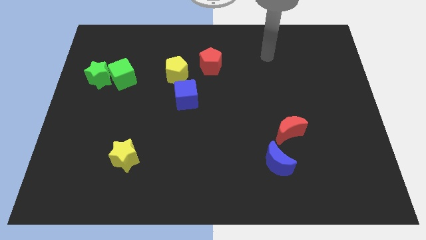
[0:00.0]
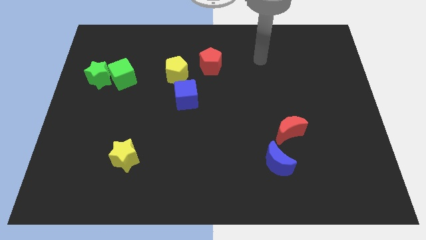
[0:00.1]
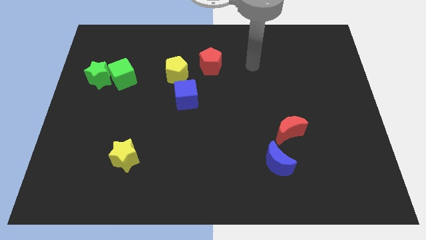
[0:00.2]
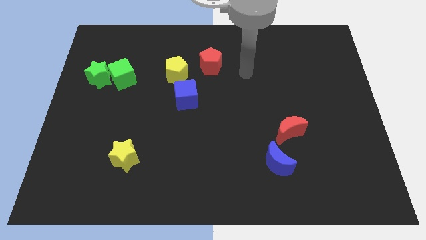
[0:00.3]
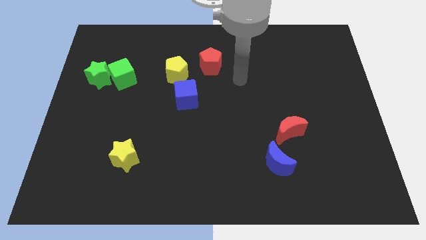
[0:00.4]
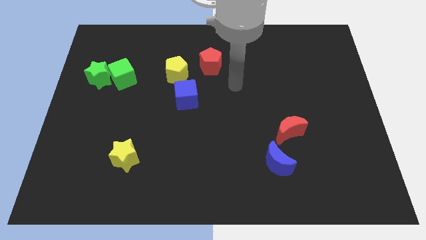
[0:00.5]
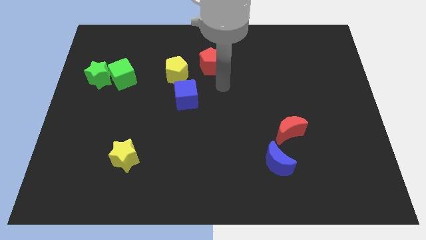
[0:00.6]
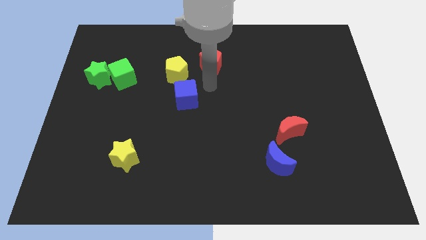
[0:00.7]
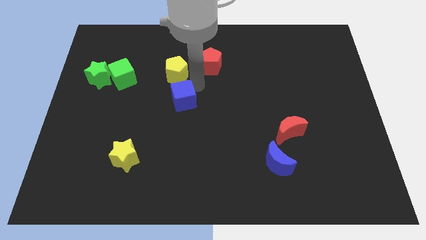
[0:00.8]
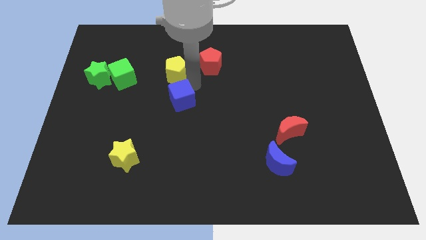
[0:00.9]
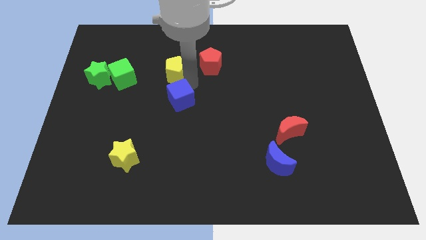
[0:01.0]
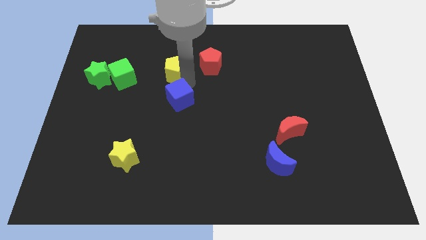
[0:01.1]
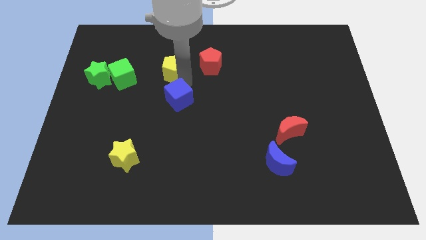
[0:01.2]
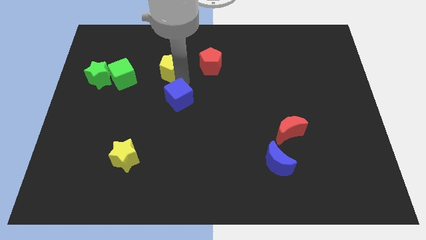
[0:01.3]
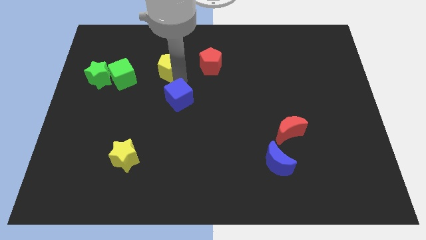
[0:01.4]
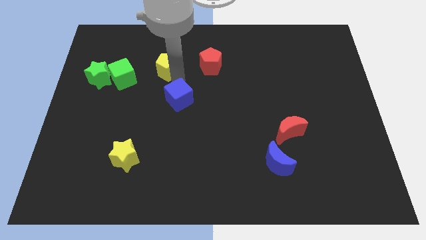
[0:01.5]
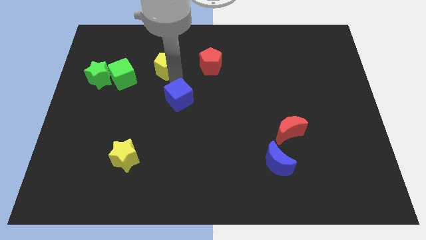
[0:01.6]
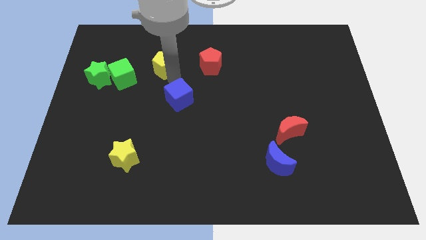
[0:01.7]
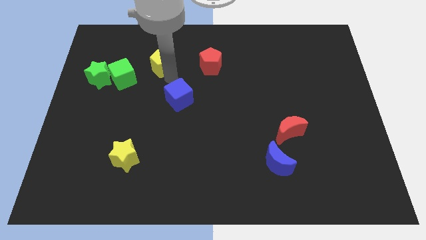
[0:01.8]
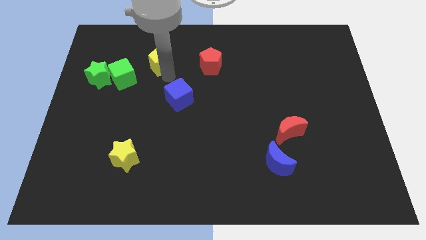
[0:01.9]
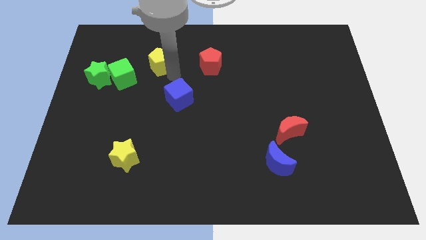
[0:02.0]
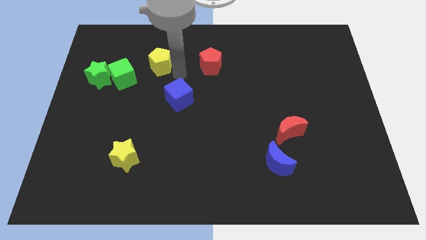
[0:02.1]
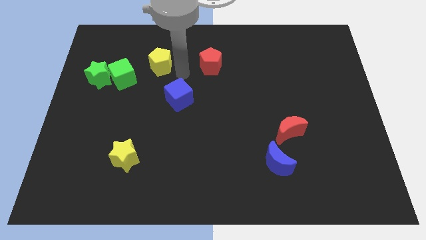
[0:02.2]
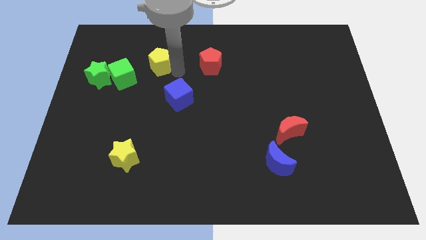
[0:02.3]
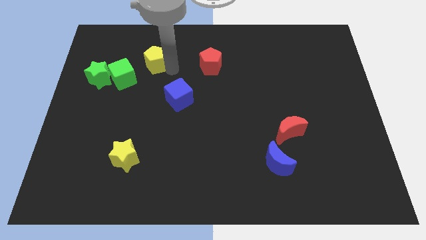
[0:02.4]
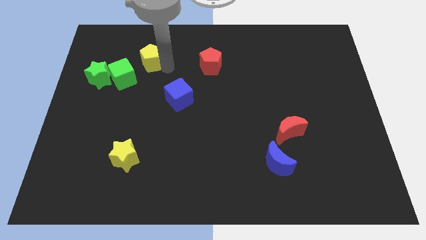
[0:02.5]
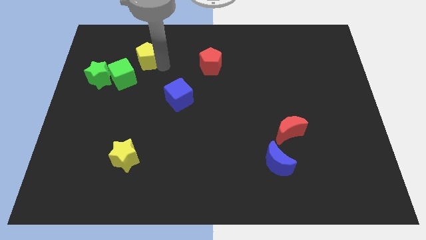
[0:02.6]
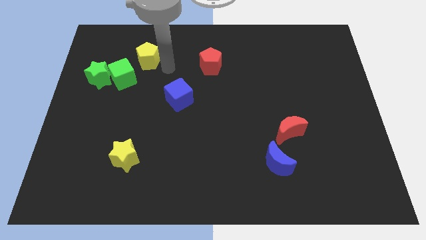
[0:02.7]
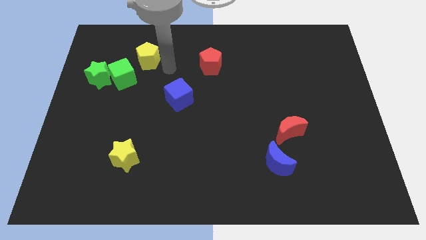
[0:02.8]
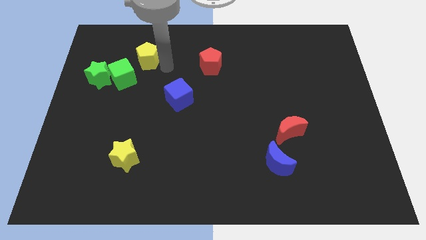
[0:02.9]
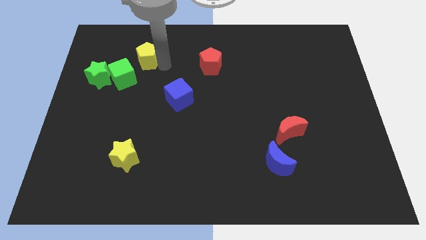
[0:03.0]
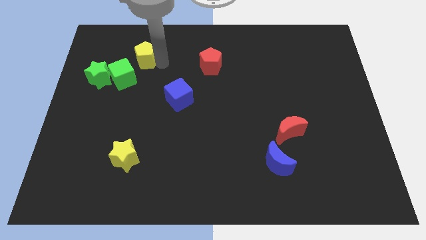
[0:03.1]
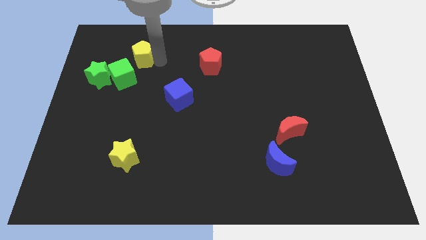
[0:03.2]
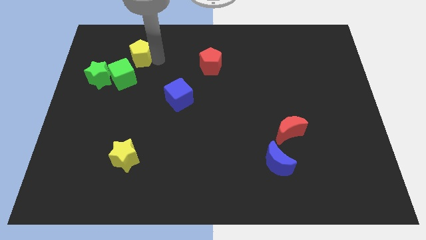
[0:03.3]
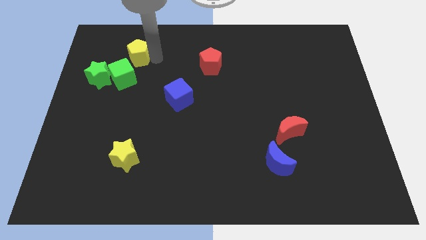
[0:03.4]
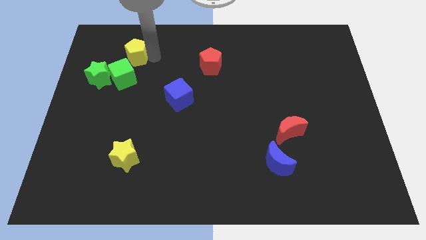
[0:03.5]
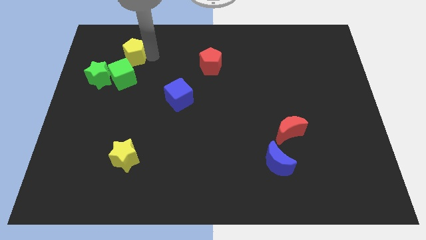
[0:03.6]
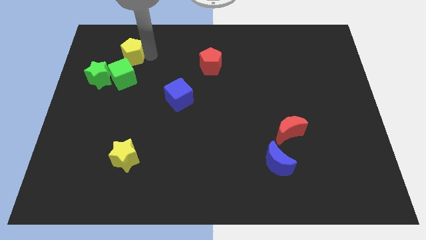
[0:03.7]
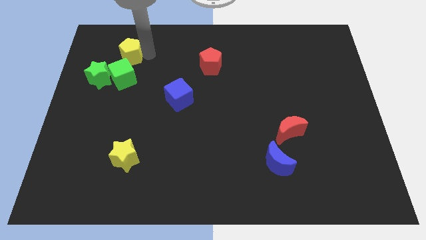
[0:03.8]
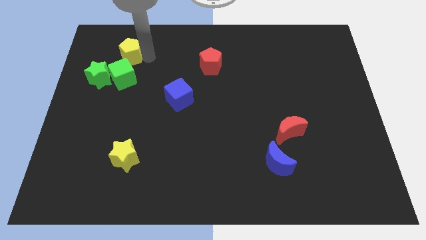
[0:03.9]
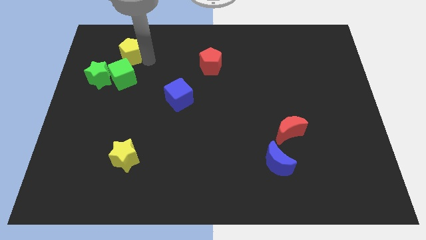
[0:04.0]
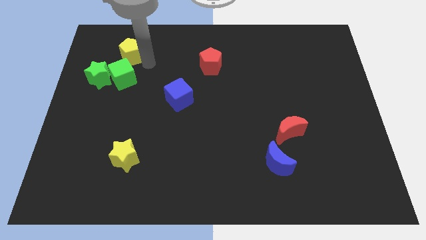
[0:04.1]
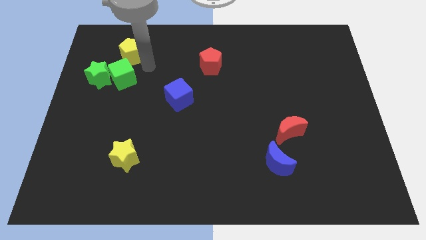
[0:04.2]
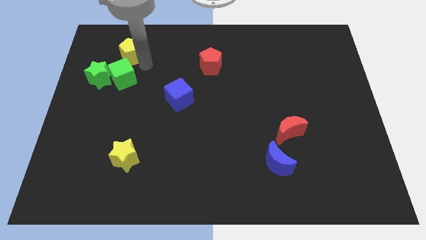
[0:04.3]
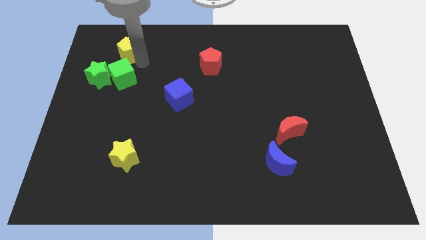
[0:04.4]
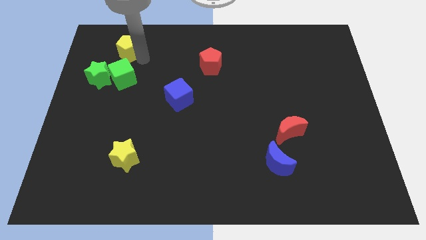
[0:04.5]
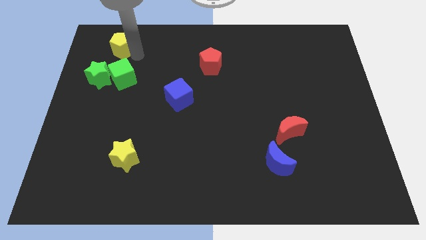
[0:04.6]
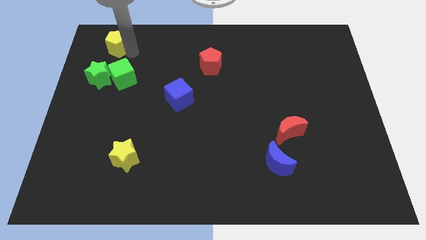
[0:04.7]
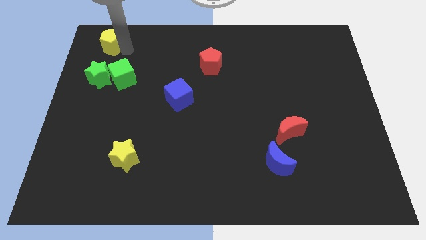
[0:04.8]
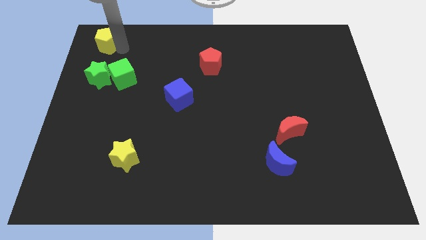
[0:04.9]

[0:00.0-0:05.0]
push the yellow pentagon to the top left

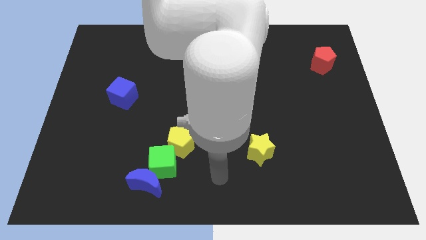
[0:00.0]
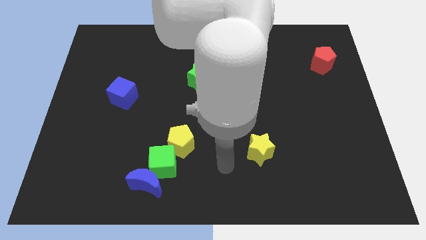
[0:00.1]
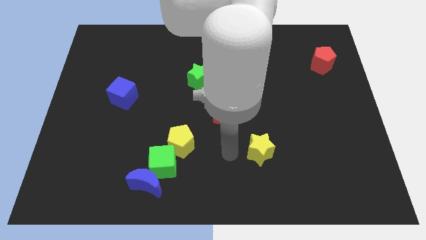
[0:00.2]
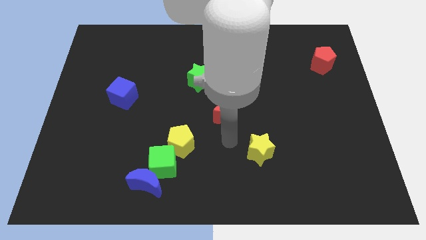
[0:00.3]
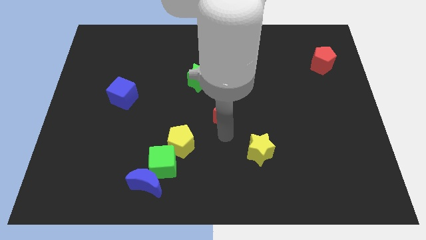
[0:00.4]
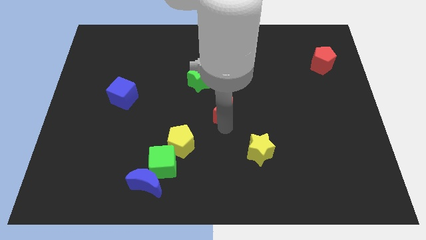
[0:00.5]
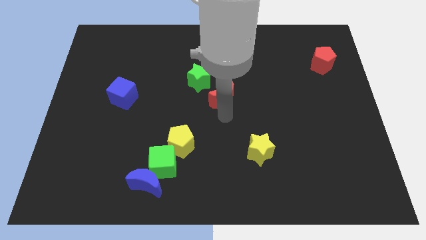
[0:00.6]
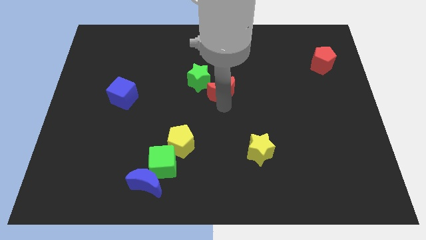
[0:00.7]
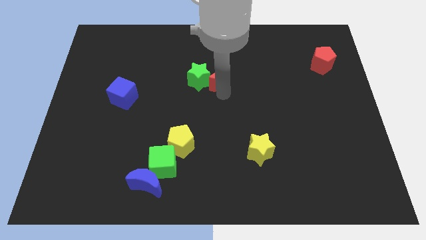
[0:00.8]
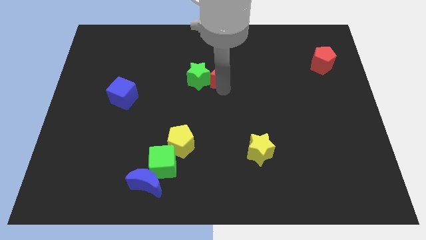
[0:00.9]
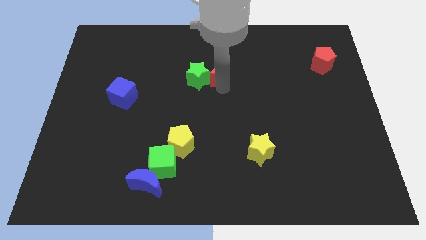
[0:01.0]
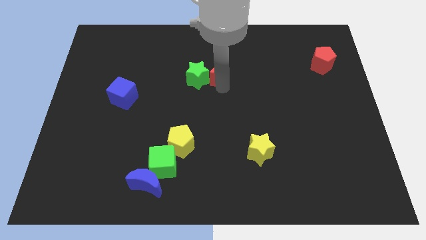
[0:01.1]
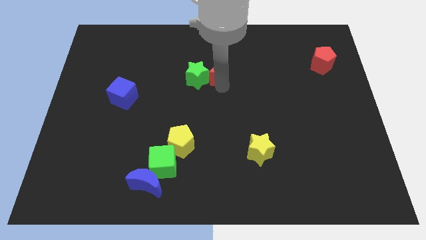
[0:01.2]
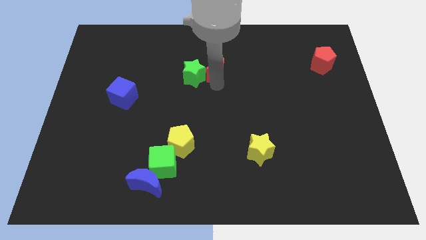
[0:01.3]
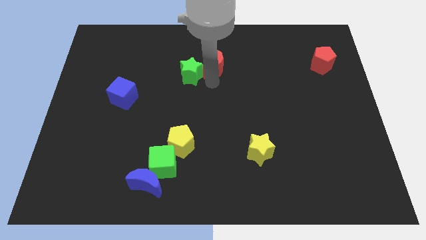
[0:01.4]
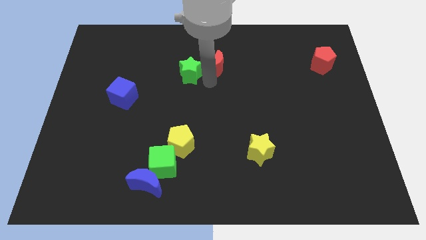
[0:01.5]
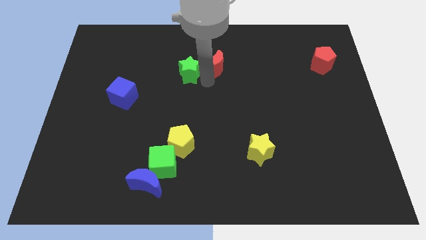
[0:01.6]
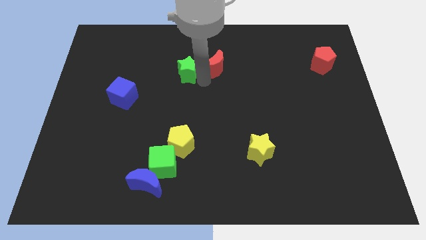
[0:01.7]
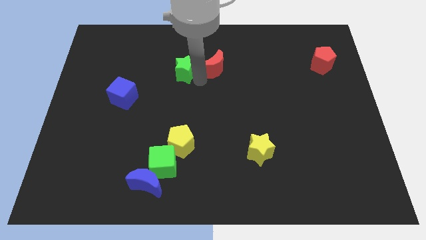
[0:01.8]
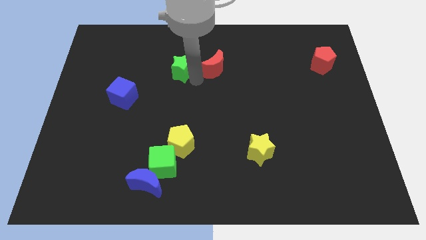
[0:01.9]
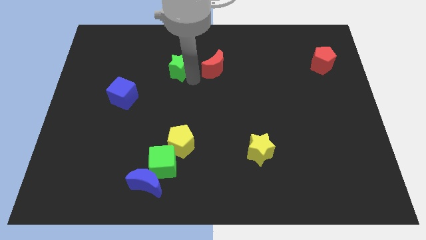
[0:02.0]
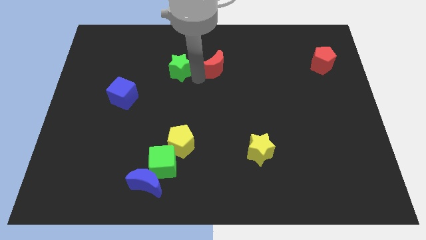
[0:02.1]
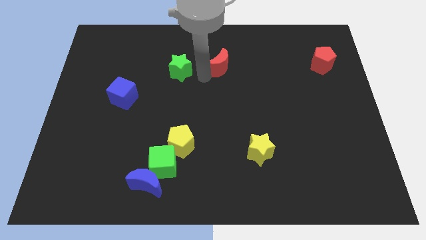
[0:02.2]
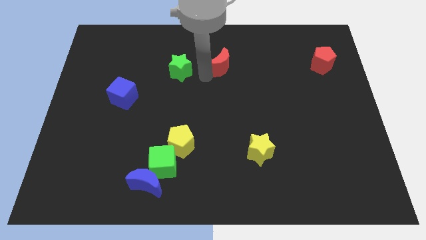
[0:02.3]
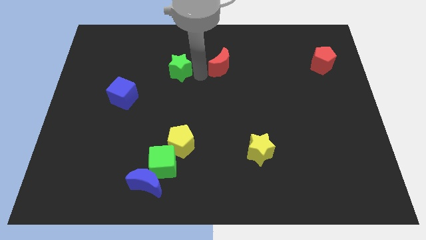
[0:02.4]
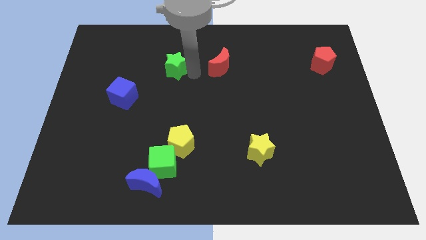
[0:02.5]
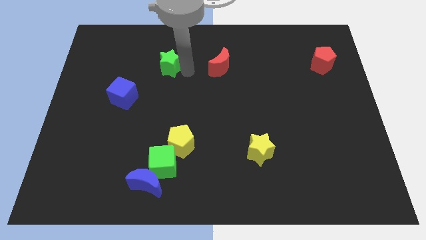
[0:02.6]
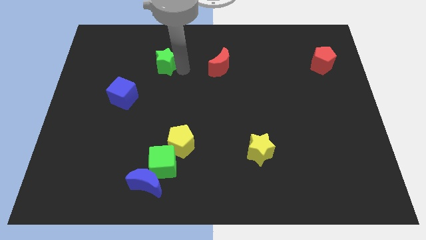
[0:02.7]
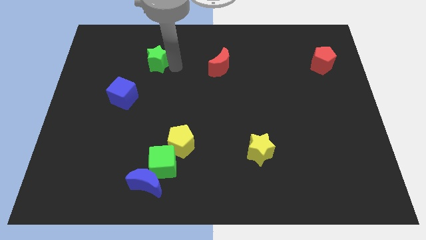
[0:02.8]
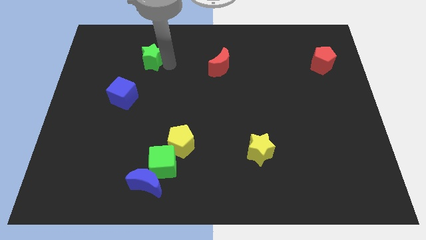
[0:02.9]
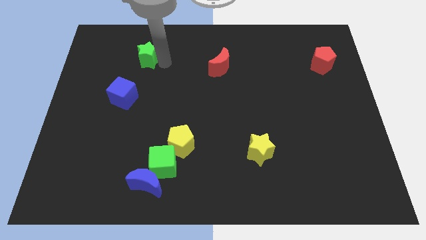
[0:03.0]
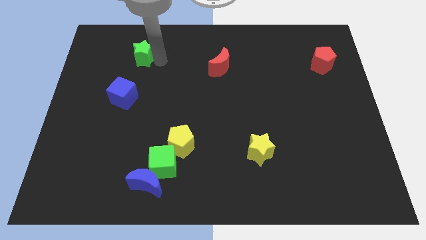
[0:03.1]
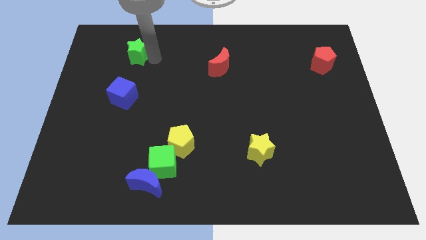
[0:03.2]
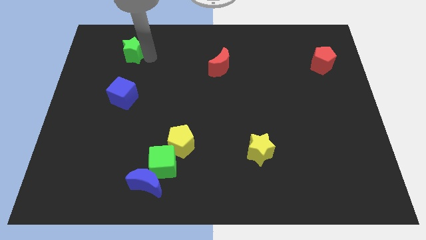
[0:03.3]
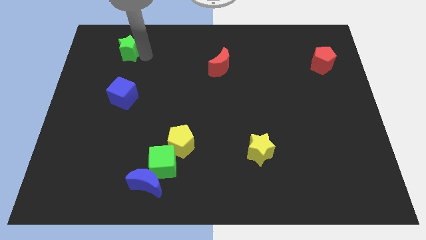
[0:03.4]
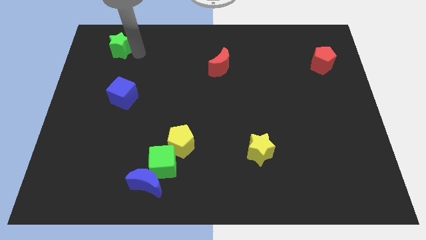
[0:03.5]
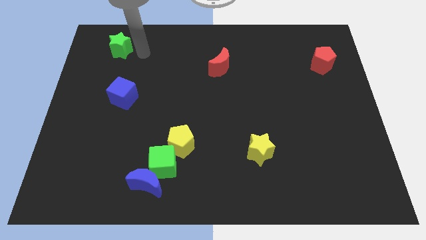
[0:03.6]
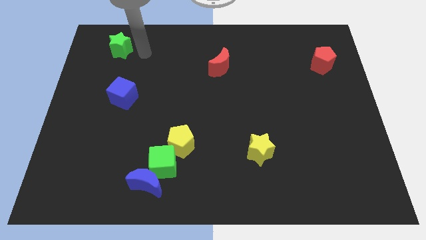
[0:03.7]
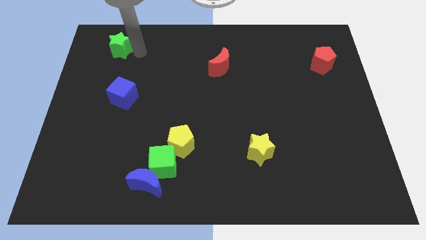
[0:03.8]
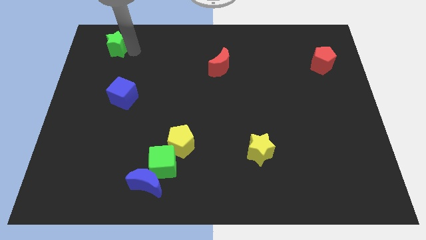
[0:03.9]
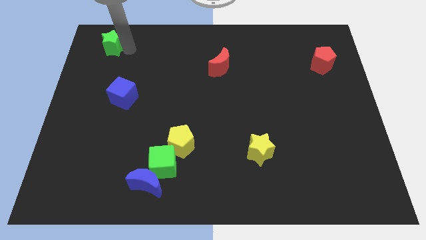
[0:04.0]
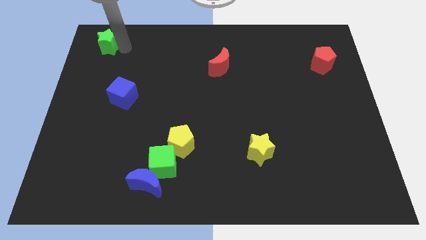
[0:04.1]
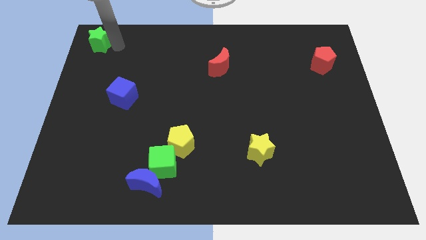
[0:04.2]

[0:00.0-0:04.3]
move the green star to the upper left corner
